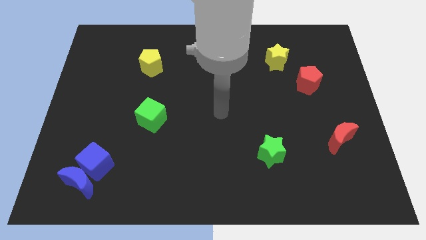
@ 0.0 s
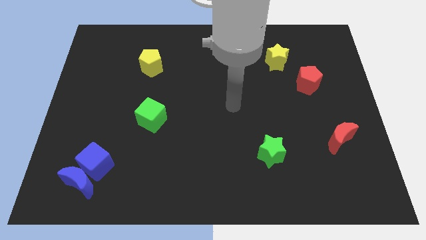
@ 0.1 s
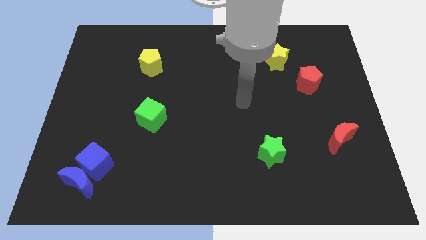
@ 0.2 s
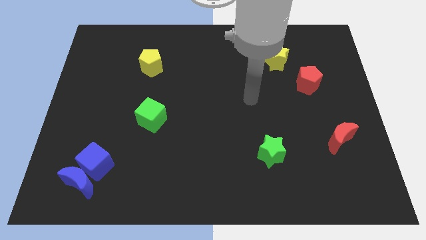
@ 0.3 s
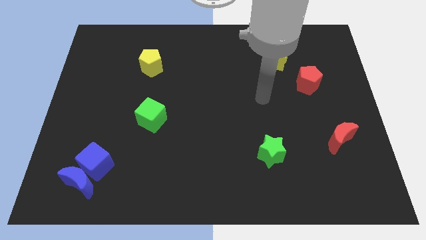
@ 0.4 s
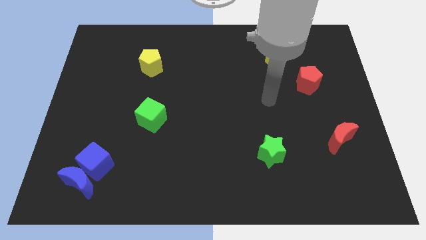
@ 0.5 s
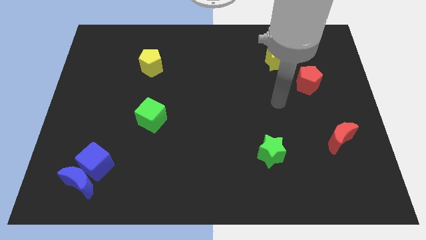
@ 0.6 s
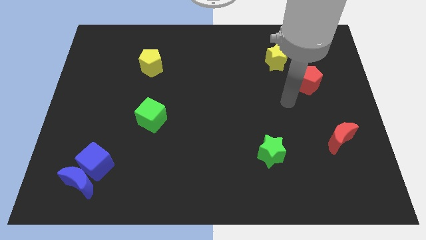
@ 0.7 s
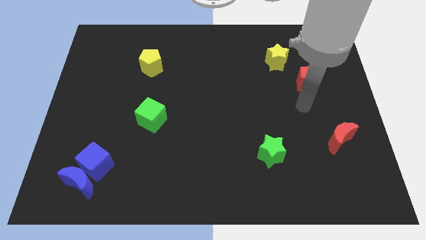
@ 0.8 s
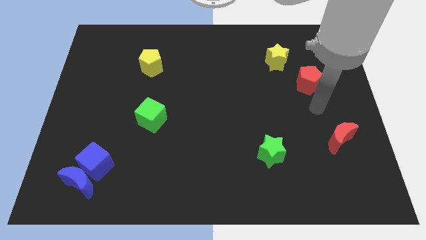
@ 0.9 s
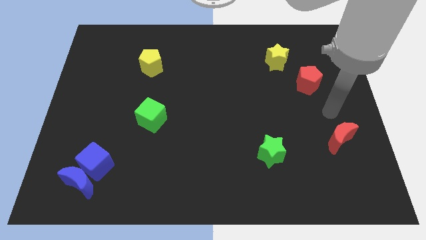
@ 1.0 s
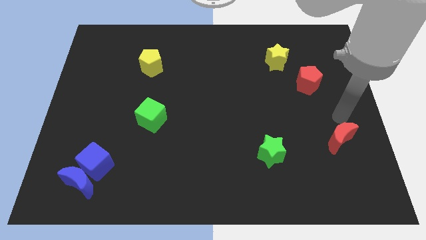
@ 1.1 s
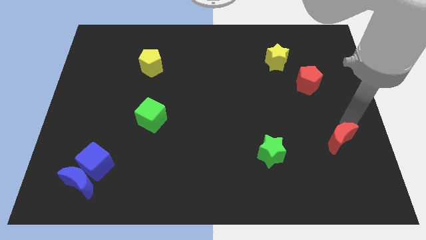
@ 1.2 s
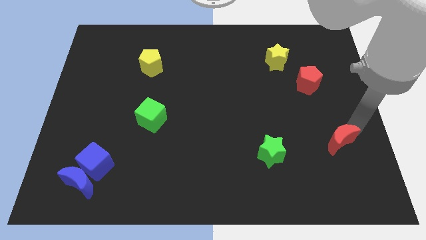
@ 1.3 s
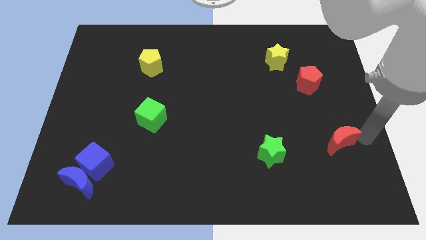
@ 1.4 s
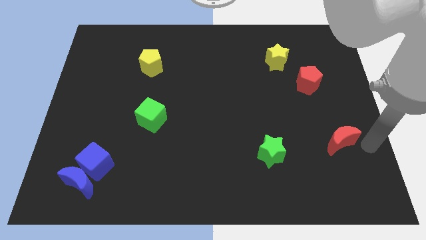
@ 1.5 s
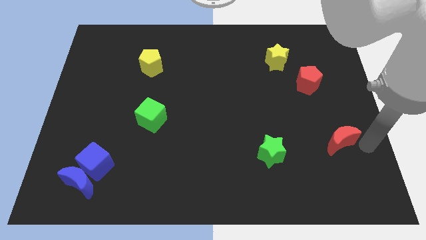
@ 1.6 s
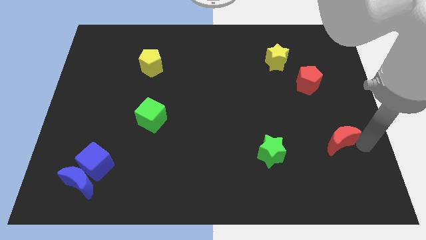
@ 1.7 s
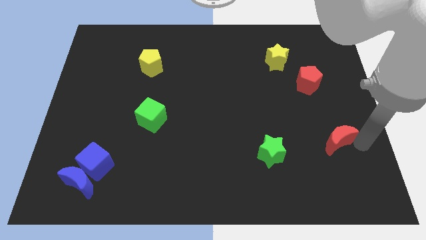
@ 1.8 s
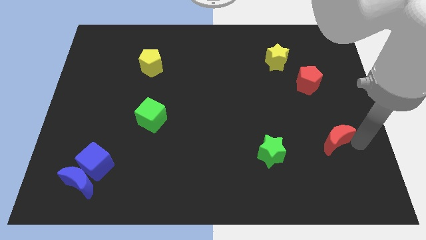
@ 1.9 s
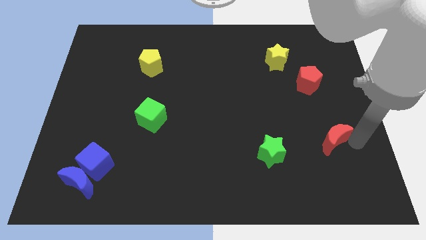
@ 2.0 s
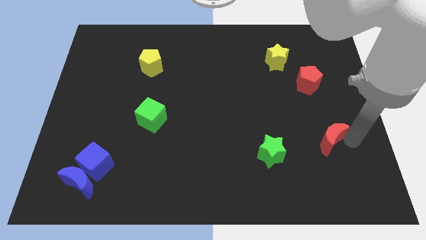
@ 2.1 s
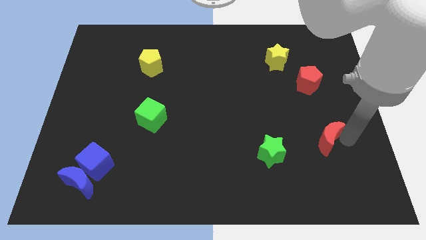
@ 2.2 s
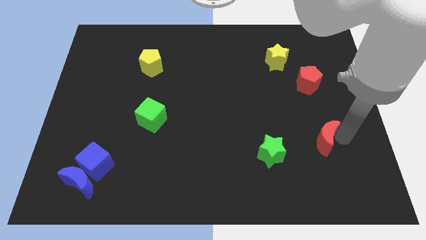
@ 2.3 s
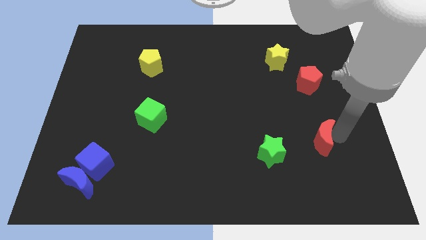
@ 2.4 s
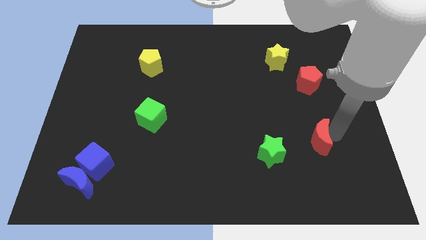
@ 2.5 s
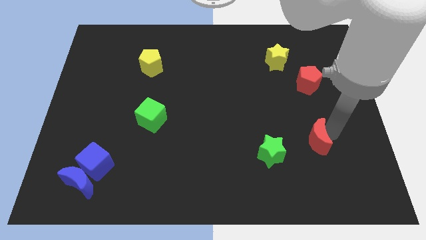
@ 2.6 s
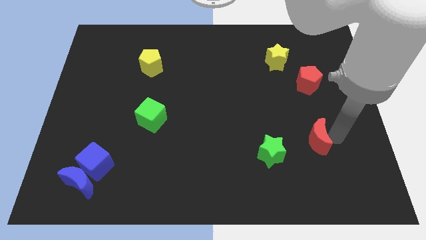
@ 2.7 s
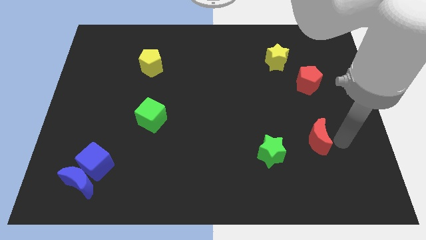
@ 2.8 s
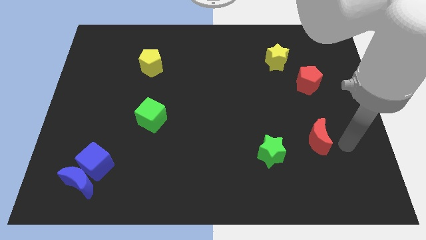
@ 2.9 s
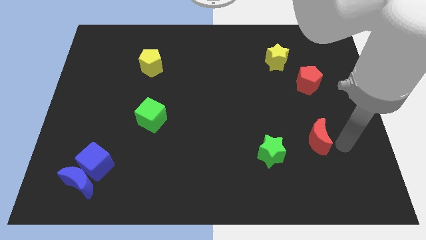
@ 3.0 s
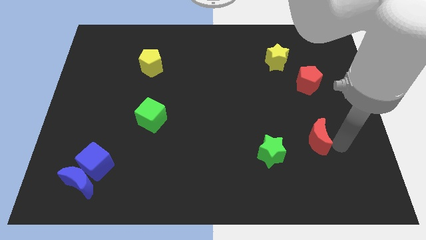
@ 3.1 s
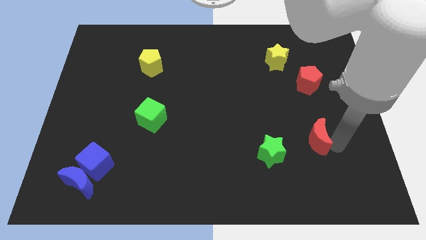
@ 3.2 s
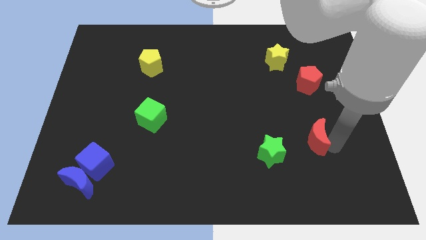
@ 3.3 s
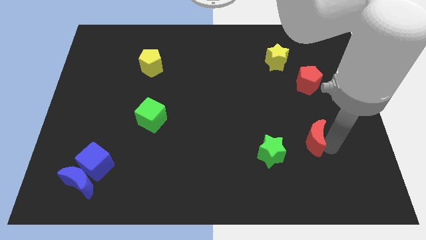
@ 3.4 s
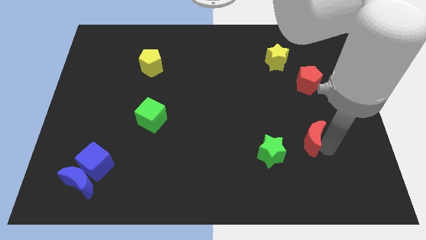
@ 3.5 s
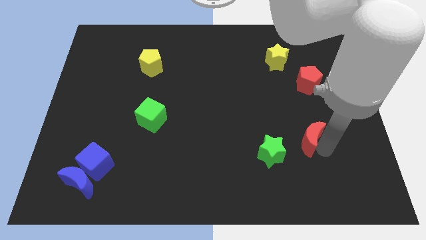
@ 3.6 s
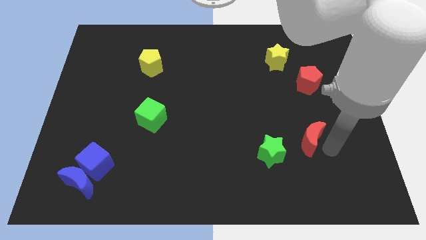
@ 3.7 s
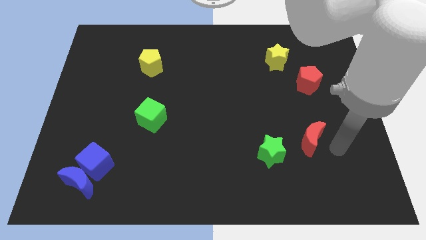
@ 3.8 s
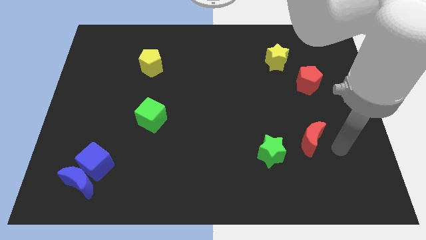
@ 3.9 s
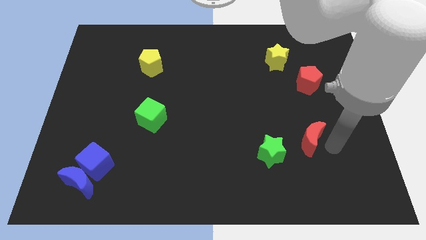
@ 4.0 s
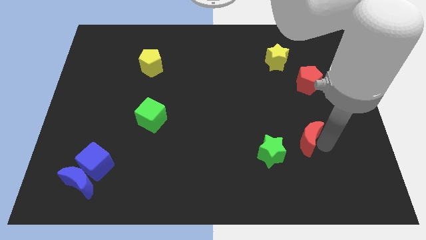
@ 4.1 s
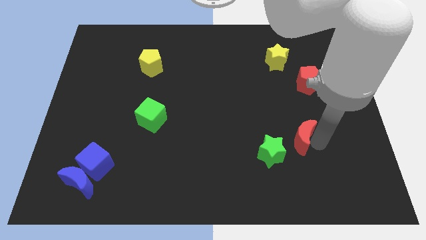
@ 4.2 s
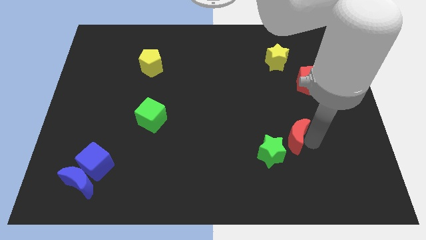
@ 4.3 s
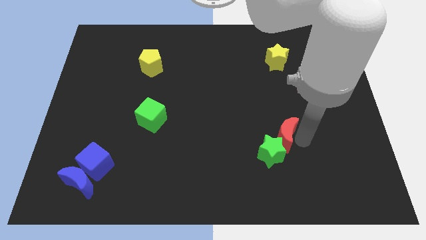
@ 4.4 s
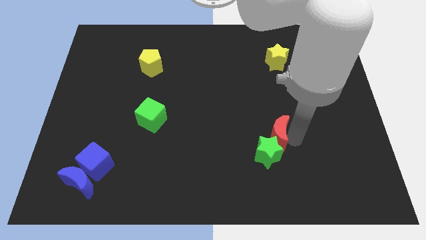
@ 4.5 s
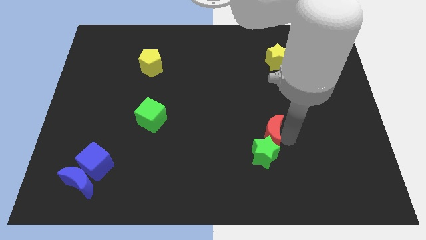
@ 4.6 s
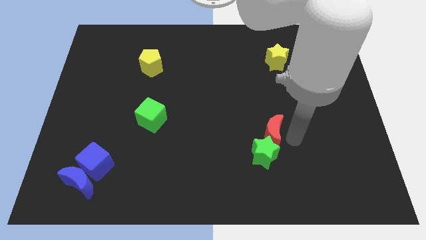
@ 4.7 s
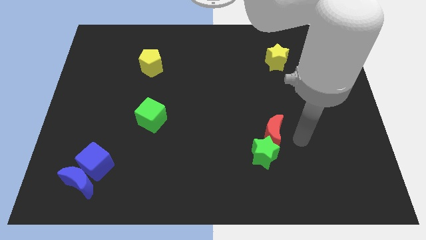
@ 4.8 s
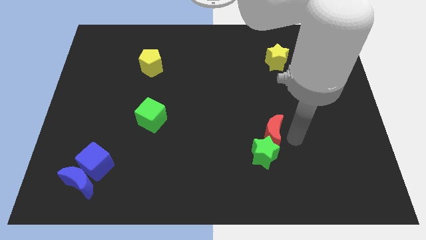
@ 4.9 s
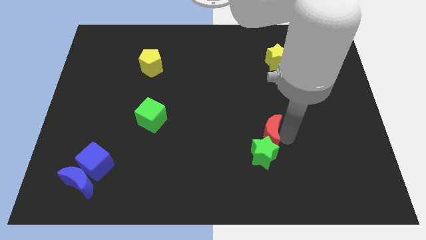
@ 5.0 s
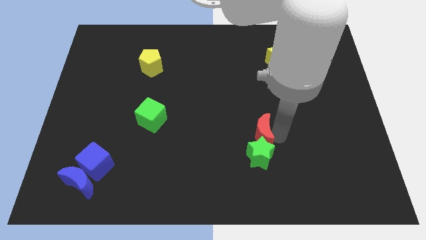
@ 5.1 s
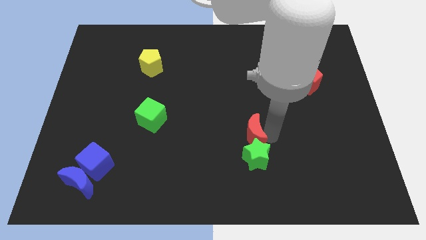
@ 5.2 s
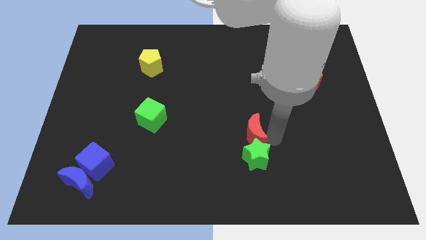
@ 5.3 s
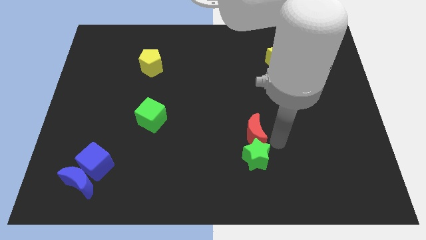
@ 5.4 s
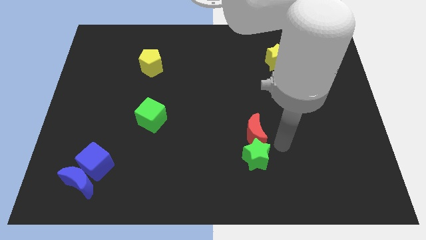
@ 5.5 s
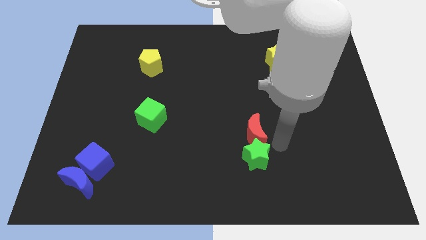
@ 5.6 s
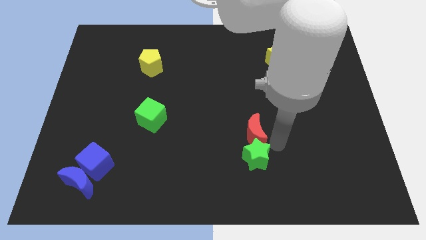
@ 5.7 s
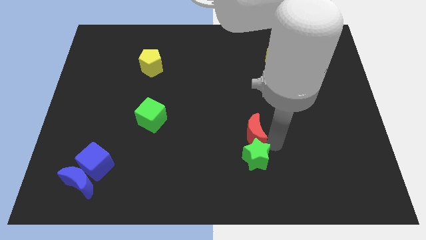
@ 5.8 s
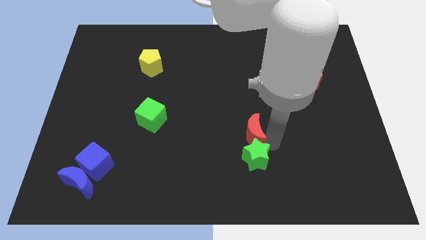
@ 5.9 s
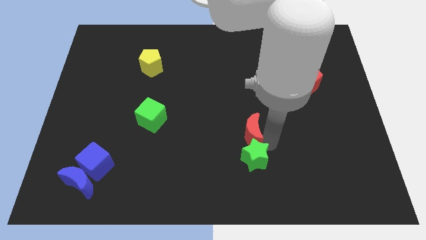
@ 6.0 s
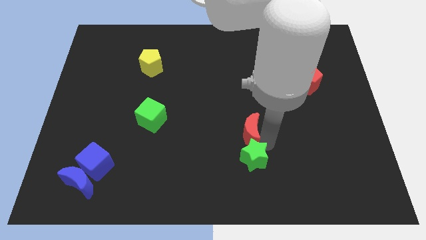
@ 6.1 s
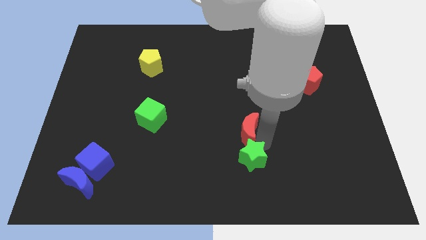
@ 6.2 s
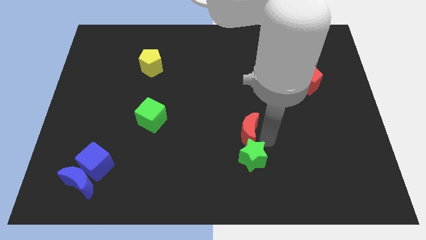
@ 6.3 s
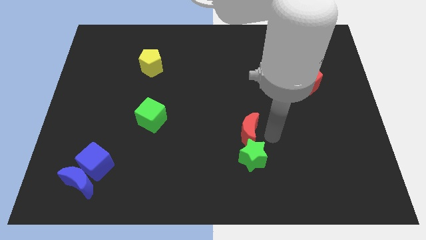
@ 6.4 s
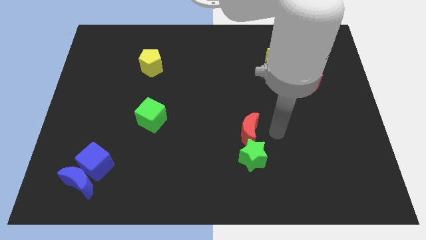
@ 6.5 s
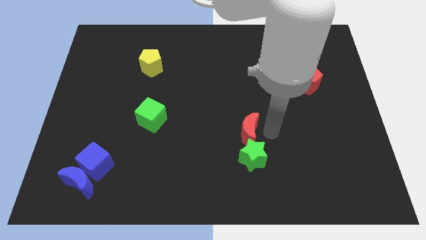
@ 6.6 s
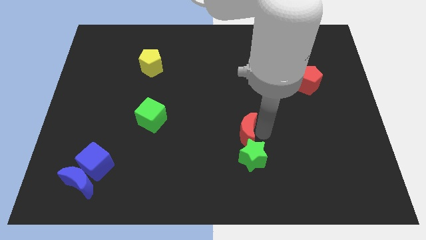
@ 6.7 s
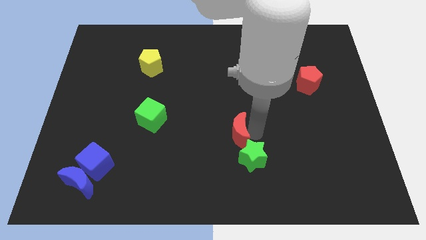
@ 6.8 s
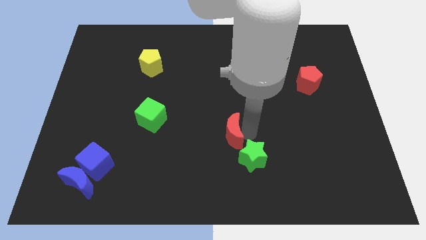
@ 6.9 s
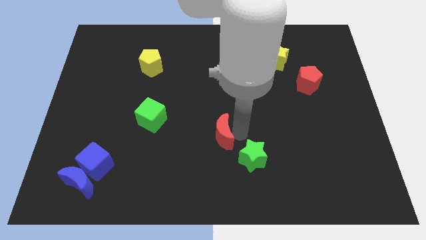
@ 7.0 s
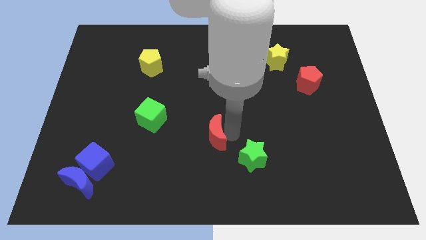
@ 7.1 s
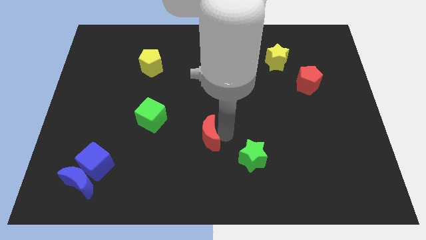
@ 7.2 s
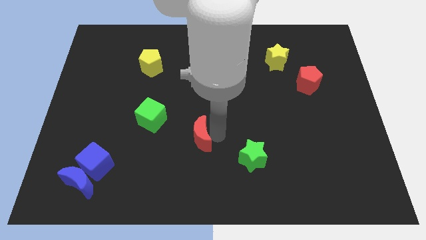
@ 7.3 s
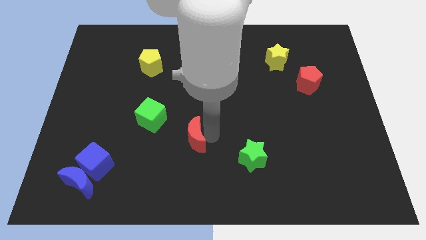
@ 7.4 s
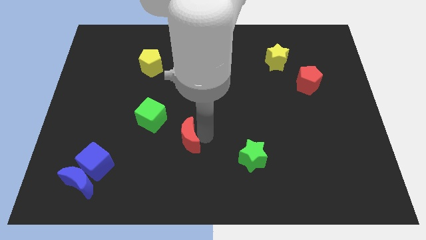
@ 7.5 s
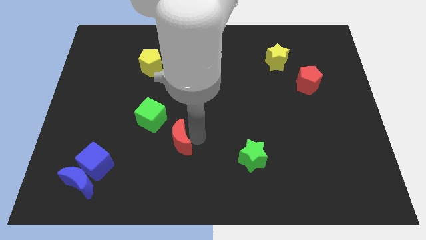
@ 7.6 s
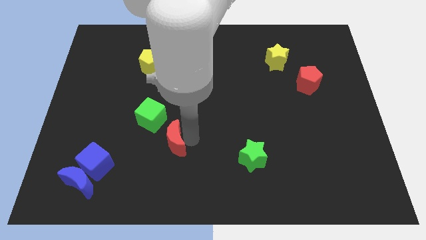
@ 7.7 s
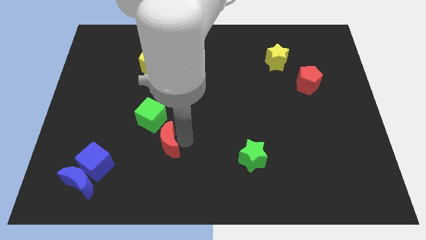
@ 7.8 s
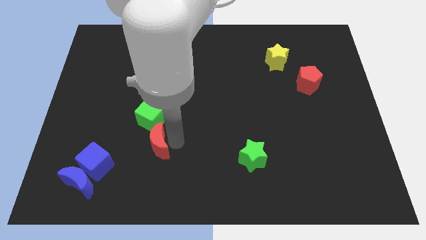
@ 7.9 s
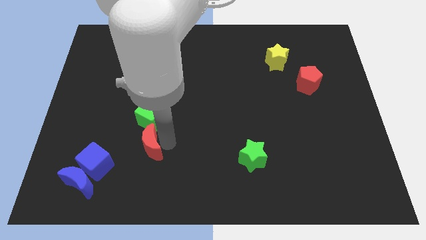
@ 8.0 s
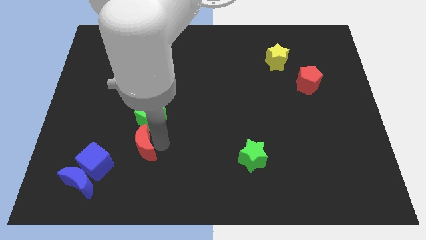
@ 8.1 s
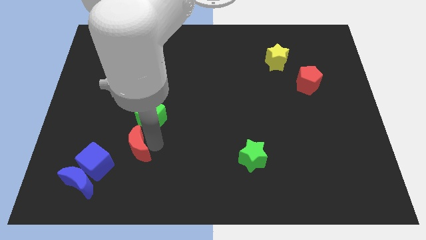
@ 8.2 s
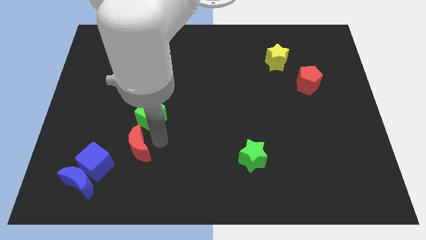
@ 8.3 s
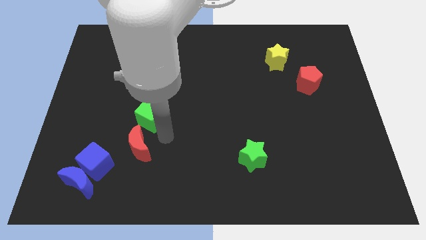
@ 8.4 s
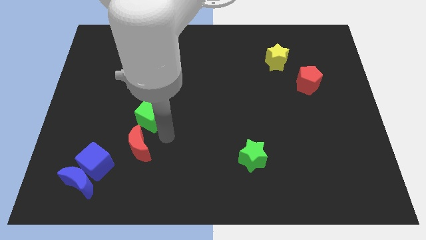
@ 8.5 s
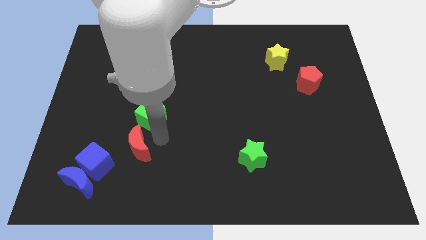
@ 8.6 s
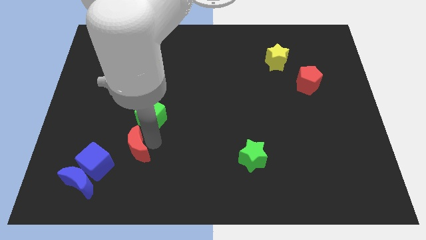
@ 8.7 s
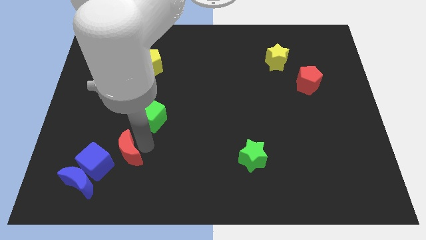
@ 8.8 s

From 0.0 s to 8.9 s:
move the red moon diagonally up and to the right of the blue moon
